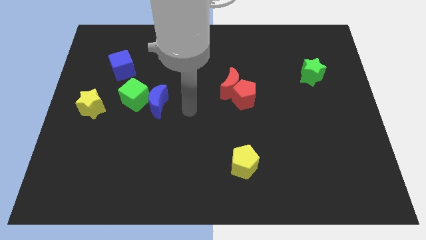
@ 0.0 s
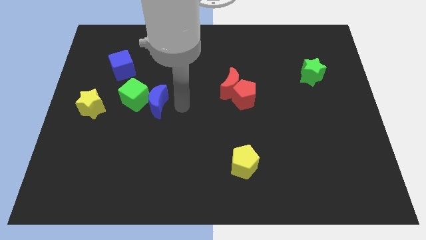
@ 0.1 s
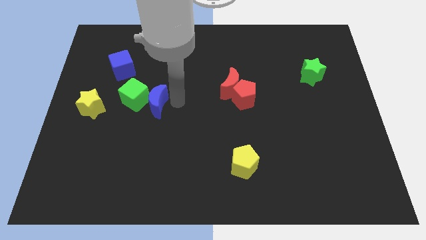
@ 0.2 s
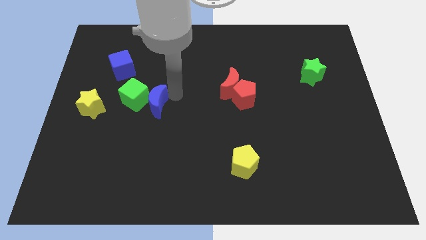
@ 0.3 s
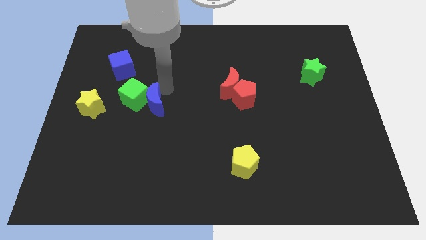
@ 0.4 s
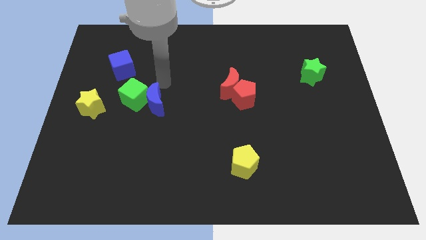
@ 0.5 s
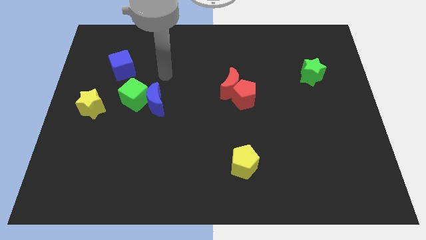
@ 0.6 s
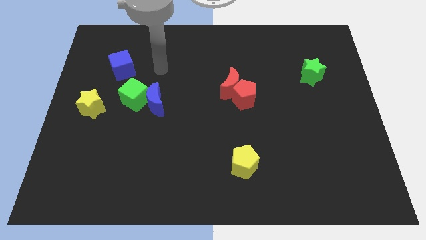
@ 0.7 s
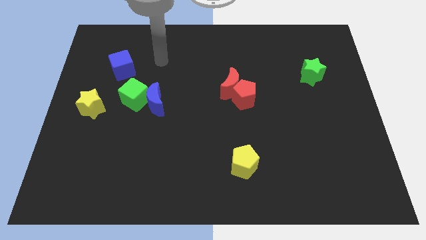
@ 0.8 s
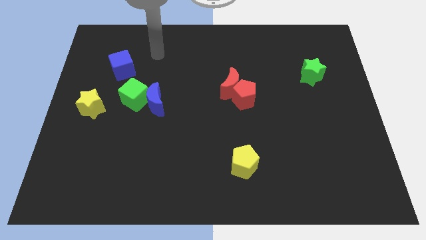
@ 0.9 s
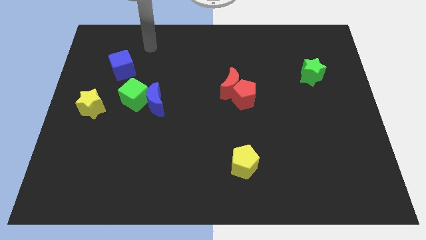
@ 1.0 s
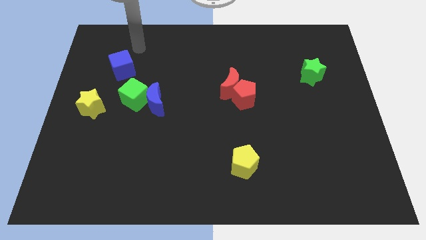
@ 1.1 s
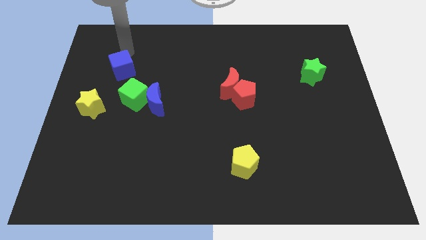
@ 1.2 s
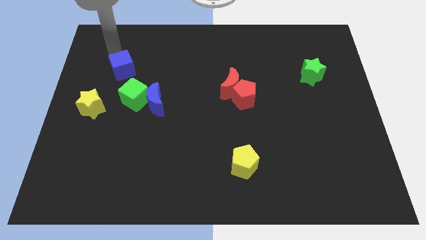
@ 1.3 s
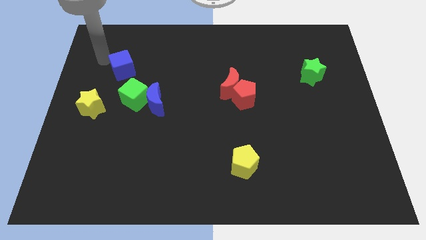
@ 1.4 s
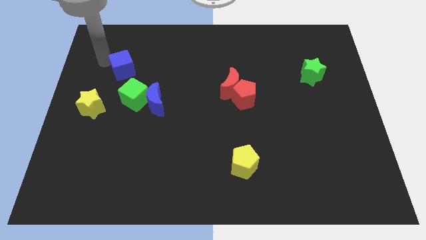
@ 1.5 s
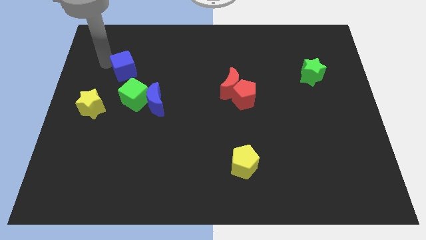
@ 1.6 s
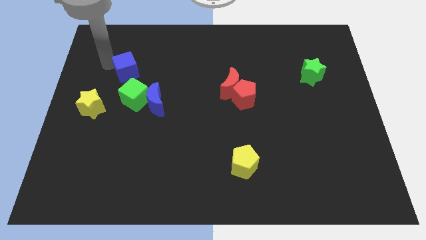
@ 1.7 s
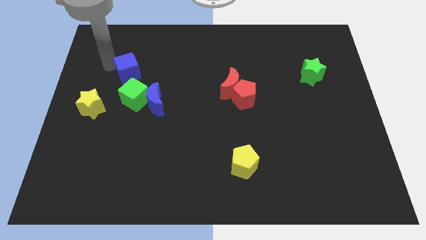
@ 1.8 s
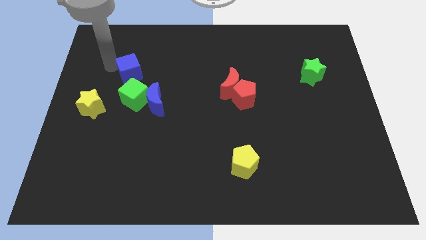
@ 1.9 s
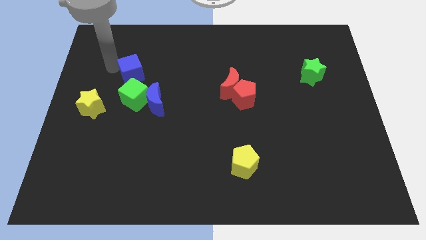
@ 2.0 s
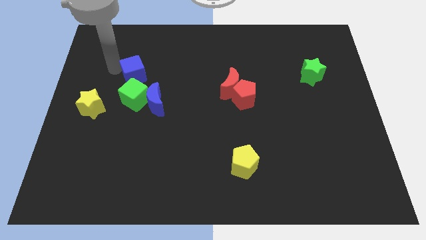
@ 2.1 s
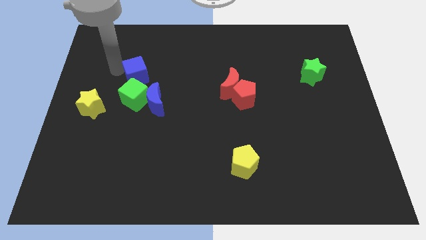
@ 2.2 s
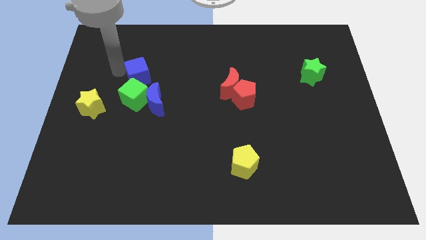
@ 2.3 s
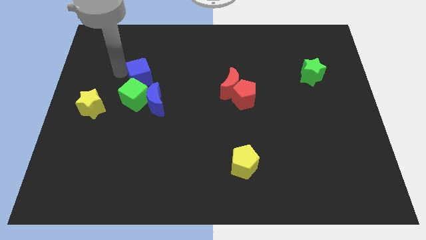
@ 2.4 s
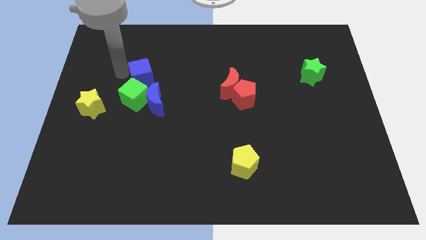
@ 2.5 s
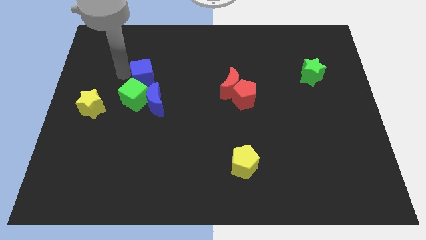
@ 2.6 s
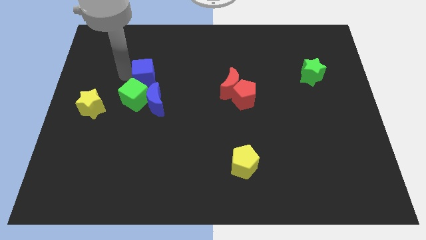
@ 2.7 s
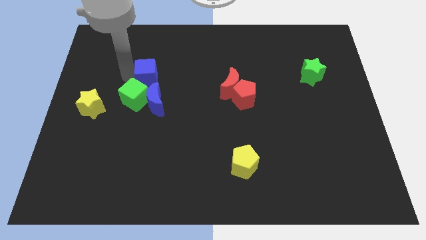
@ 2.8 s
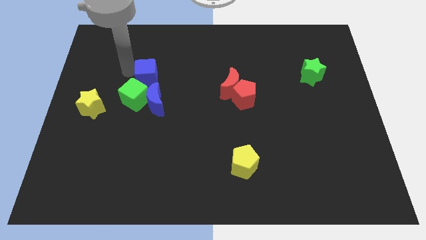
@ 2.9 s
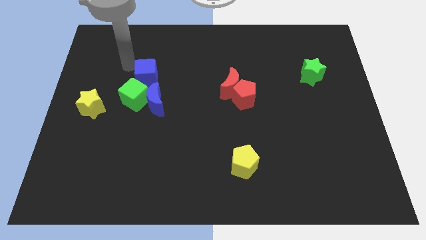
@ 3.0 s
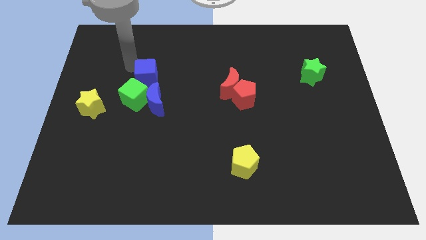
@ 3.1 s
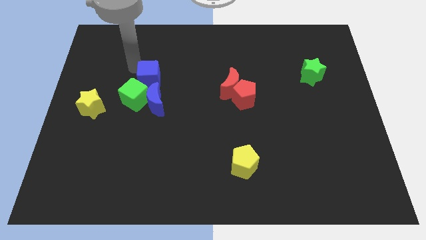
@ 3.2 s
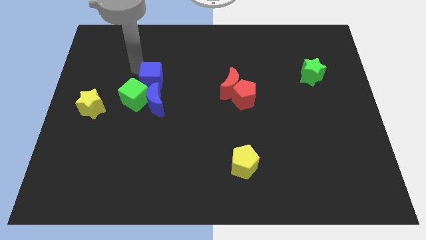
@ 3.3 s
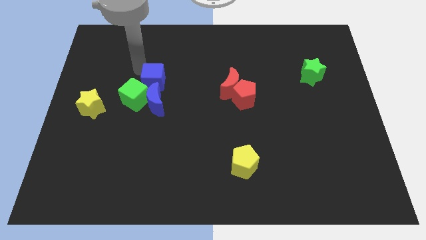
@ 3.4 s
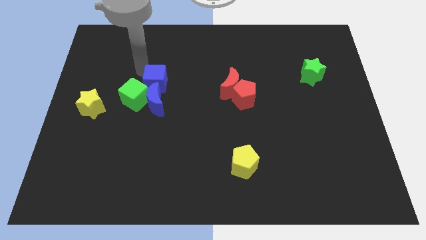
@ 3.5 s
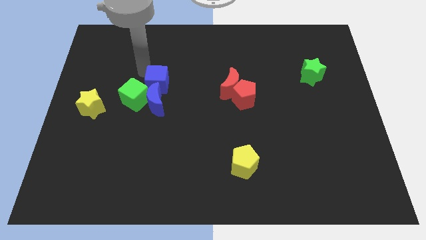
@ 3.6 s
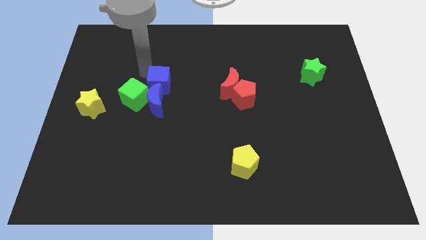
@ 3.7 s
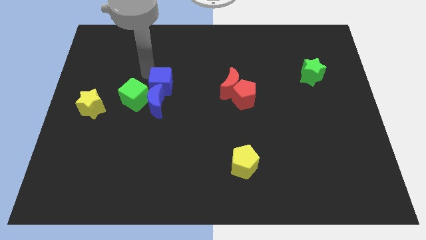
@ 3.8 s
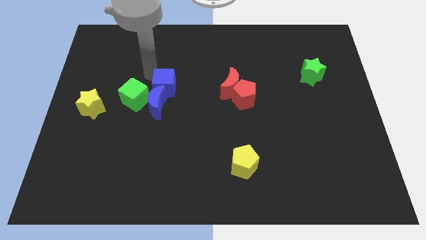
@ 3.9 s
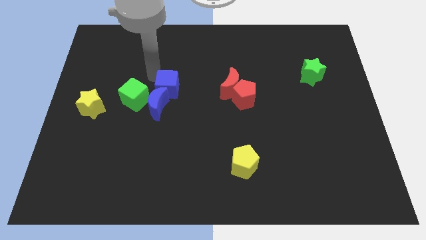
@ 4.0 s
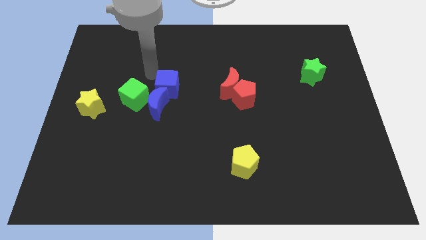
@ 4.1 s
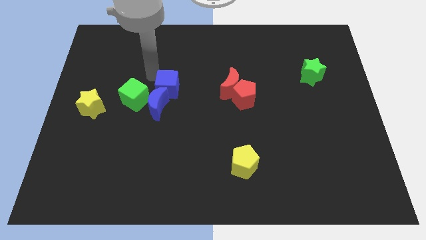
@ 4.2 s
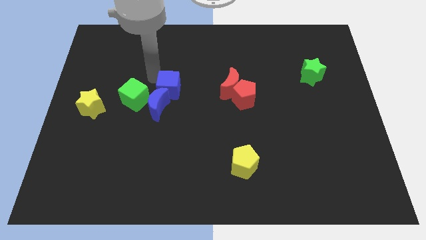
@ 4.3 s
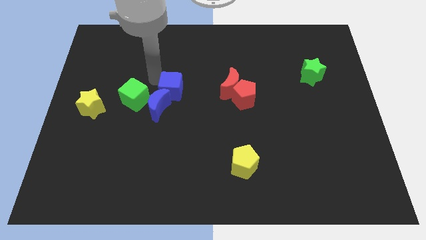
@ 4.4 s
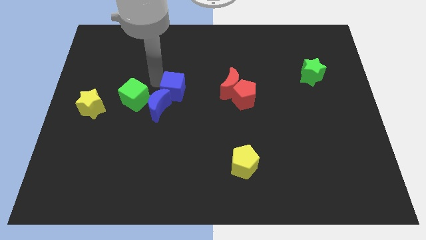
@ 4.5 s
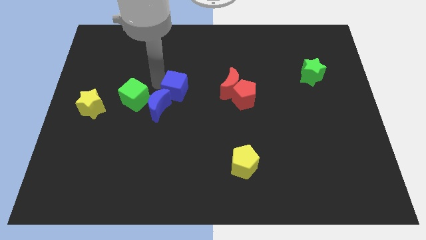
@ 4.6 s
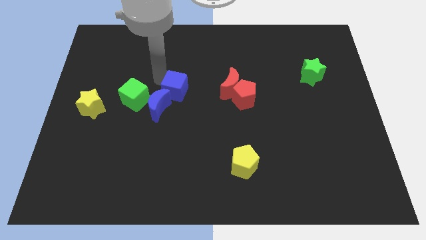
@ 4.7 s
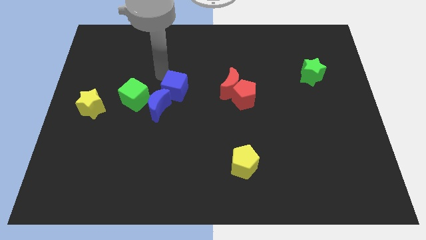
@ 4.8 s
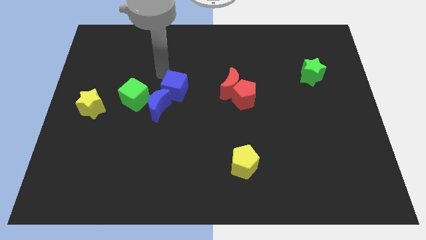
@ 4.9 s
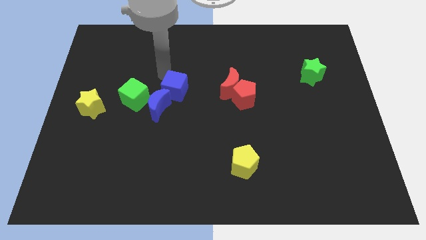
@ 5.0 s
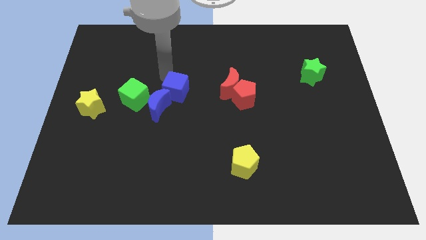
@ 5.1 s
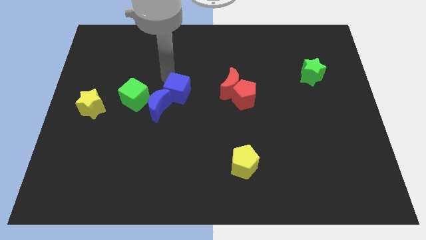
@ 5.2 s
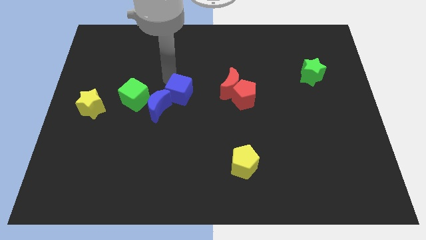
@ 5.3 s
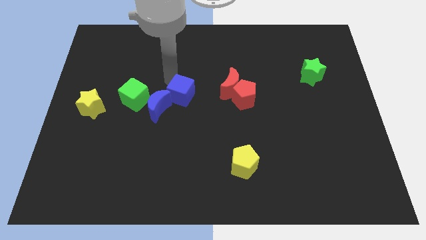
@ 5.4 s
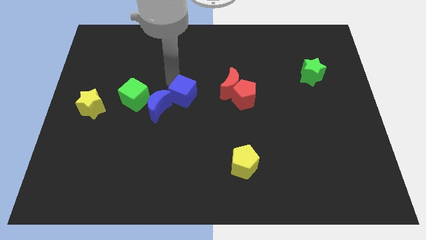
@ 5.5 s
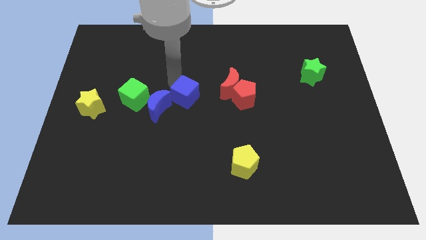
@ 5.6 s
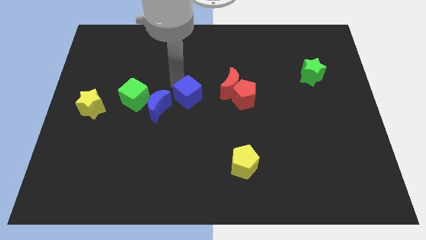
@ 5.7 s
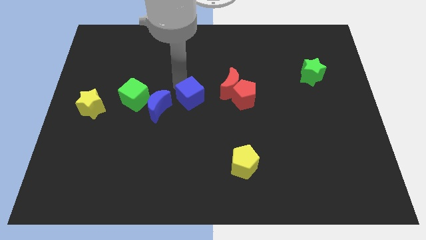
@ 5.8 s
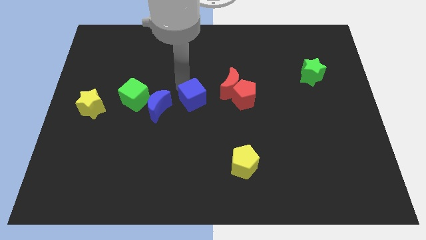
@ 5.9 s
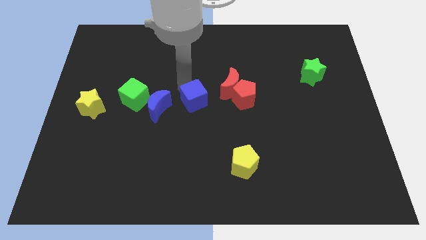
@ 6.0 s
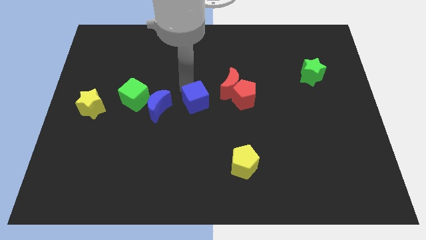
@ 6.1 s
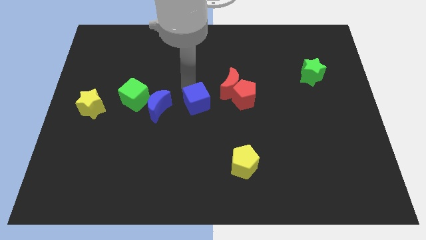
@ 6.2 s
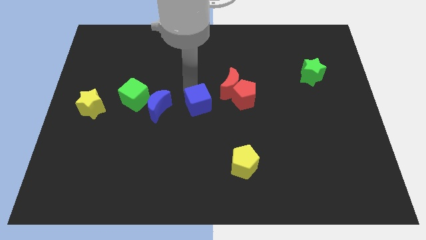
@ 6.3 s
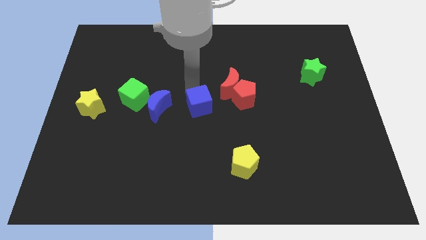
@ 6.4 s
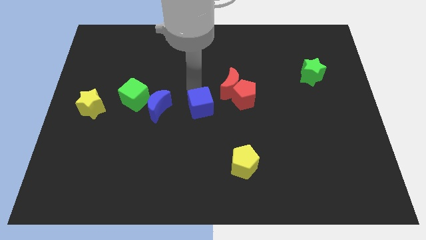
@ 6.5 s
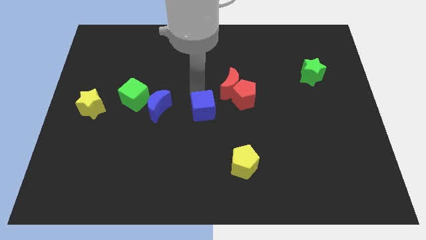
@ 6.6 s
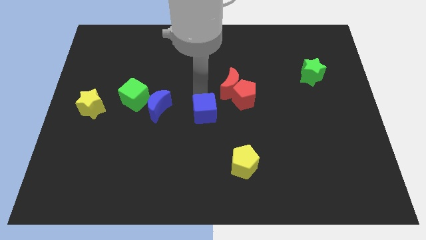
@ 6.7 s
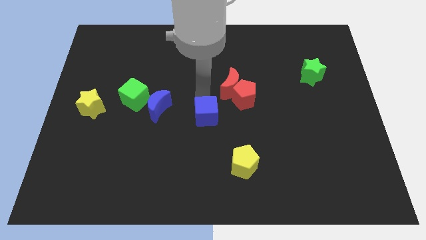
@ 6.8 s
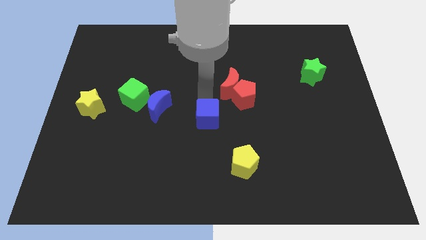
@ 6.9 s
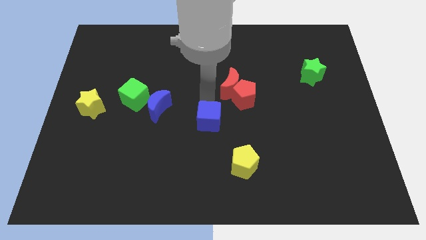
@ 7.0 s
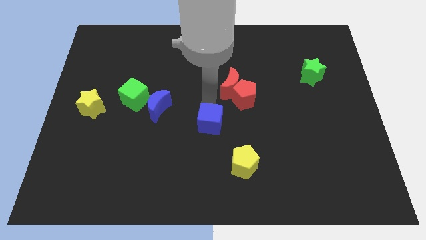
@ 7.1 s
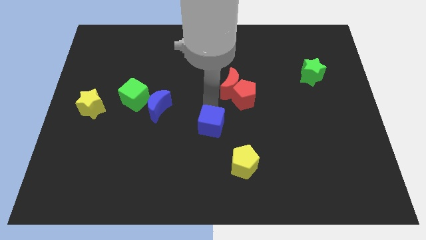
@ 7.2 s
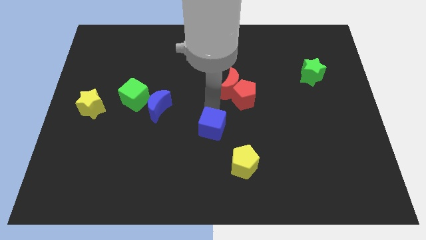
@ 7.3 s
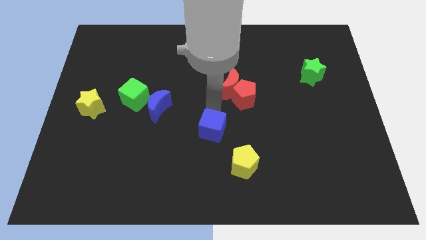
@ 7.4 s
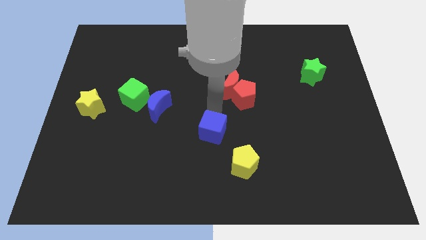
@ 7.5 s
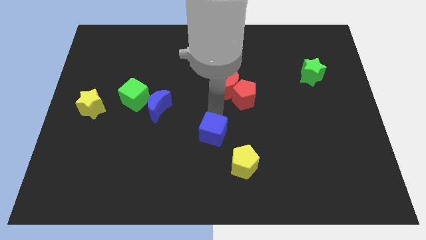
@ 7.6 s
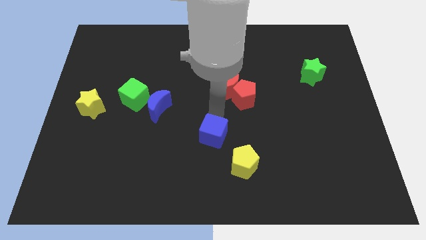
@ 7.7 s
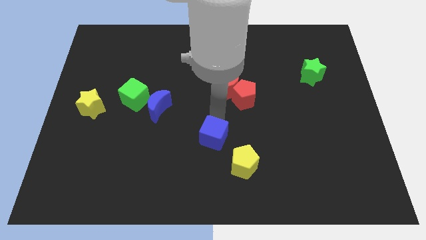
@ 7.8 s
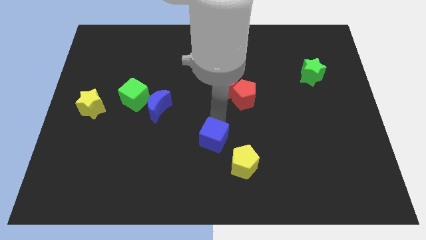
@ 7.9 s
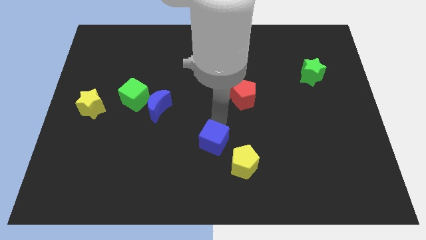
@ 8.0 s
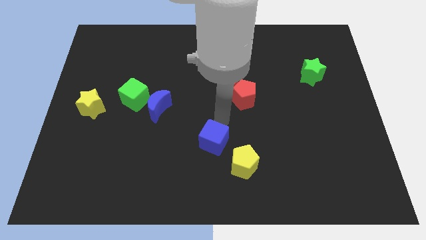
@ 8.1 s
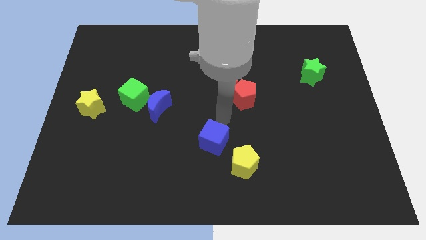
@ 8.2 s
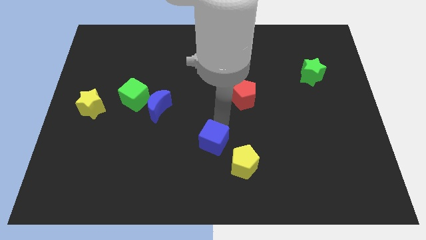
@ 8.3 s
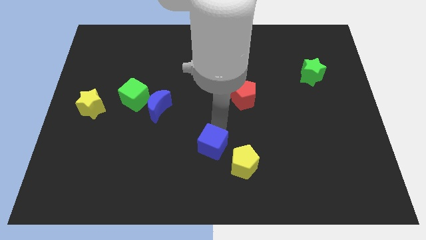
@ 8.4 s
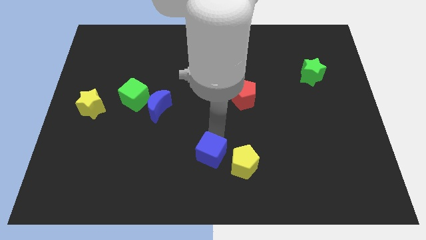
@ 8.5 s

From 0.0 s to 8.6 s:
put the blue cube to the bottom
